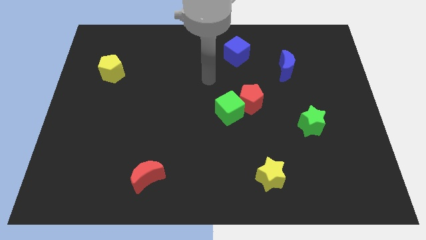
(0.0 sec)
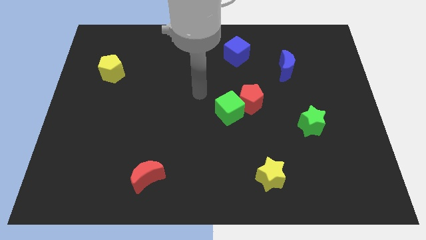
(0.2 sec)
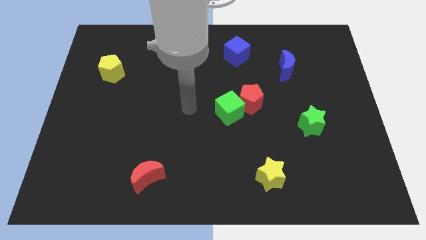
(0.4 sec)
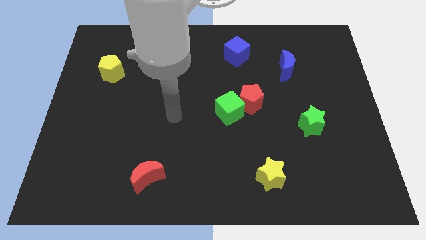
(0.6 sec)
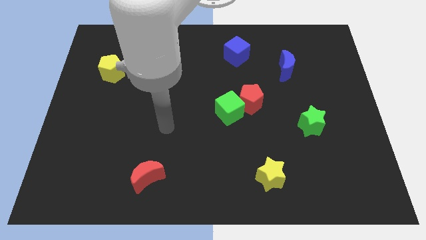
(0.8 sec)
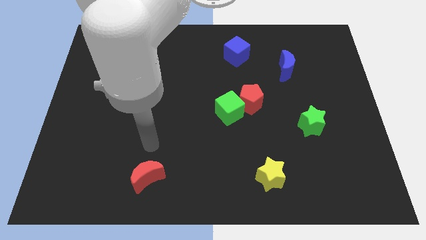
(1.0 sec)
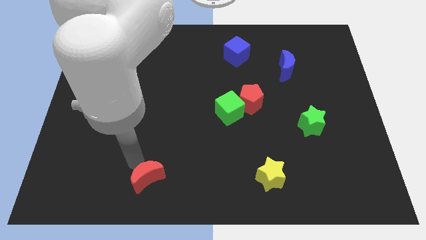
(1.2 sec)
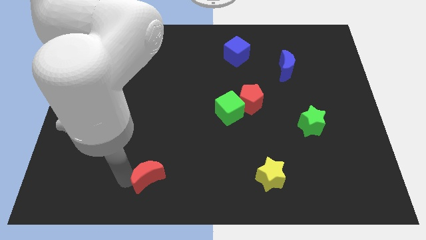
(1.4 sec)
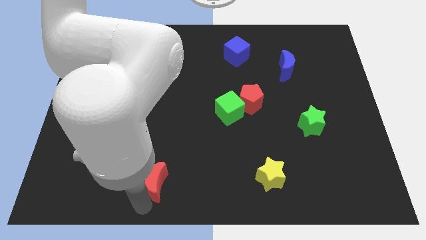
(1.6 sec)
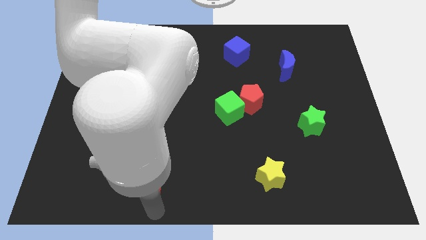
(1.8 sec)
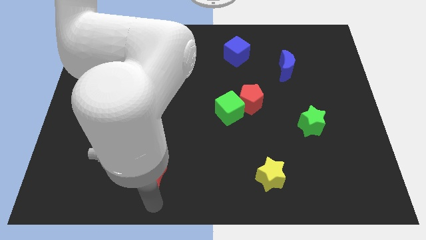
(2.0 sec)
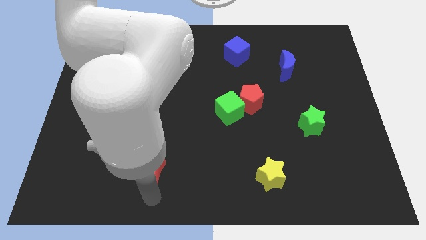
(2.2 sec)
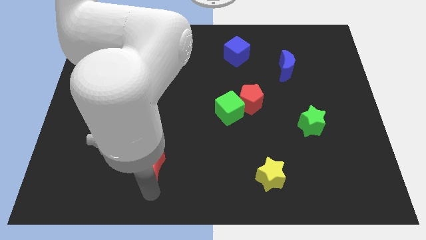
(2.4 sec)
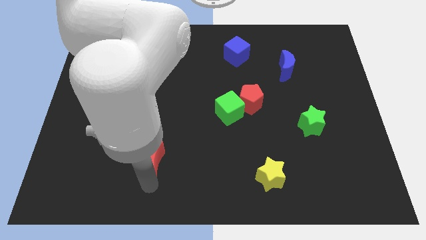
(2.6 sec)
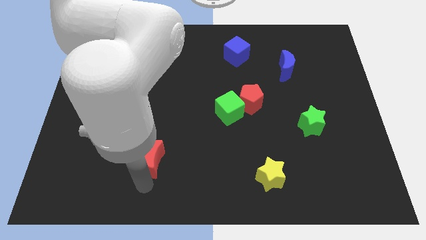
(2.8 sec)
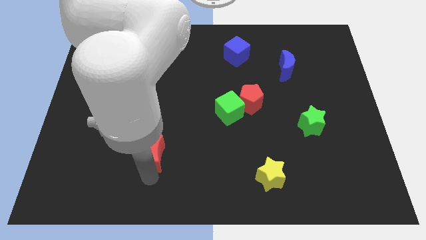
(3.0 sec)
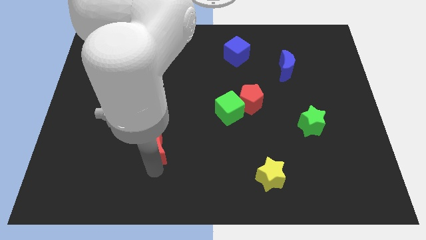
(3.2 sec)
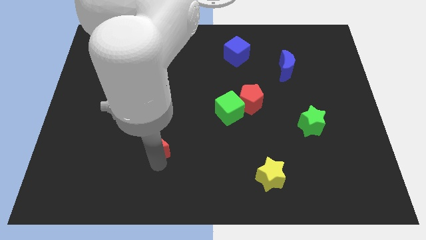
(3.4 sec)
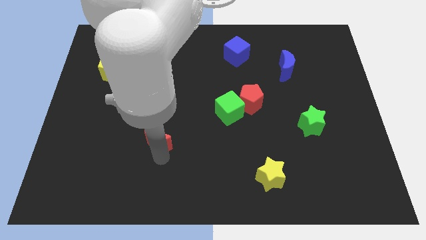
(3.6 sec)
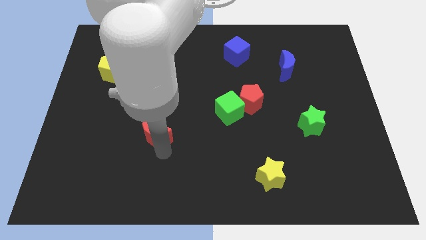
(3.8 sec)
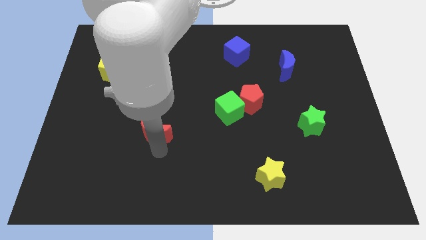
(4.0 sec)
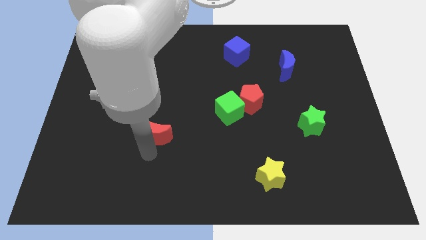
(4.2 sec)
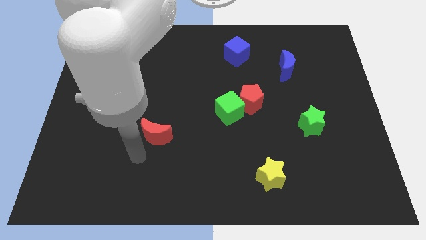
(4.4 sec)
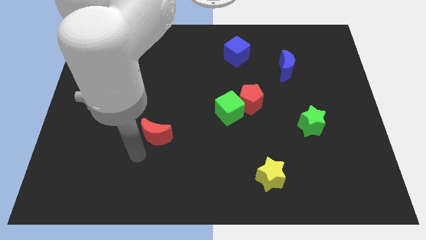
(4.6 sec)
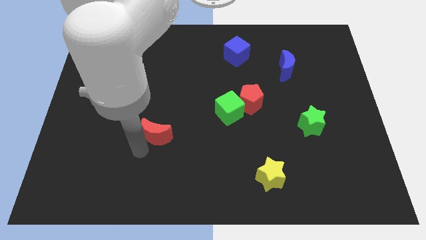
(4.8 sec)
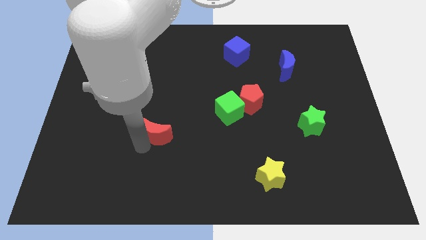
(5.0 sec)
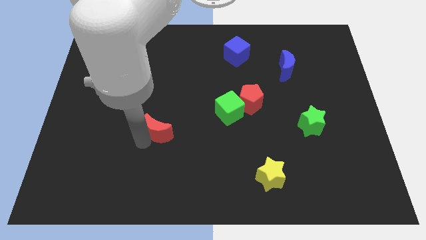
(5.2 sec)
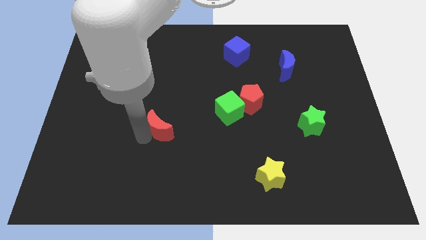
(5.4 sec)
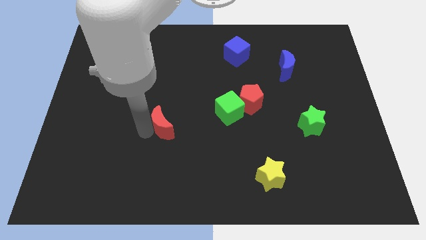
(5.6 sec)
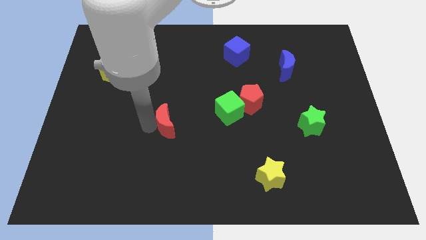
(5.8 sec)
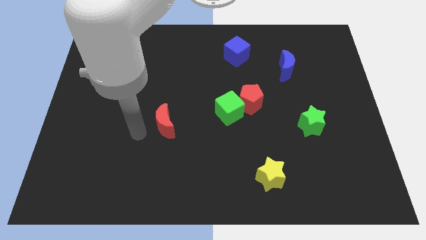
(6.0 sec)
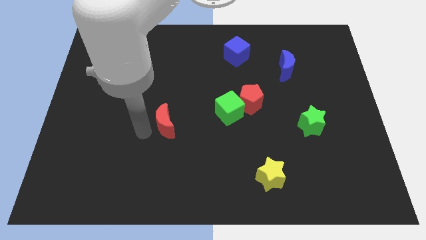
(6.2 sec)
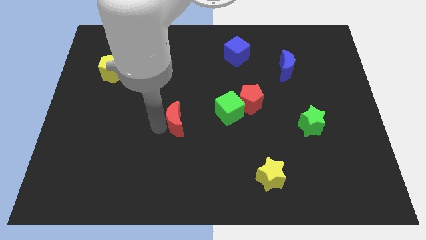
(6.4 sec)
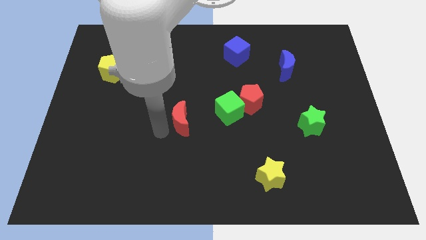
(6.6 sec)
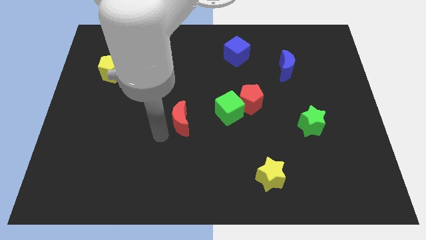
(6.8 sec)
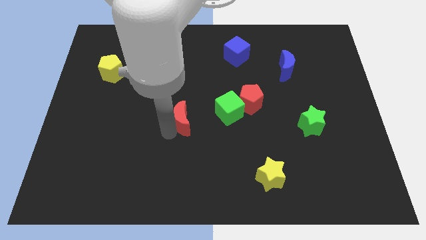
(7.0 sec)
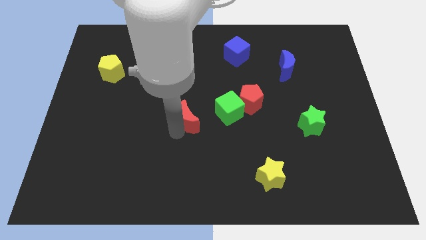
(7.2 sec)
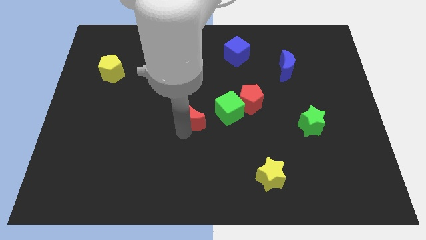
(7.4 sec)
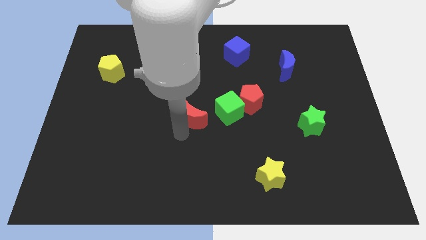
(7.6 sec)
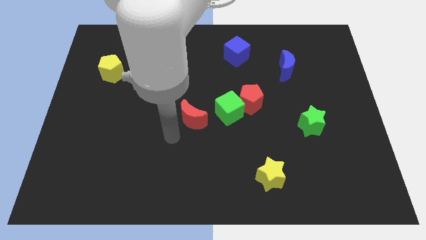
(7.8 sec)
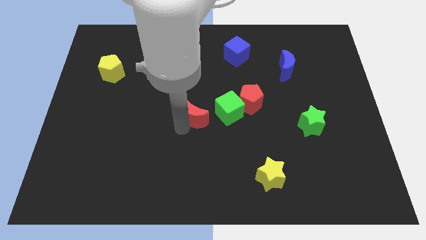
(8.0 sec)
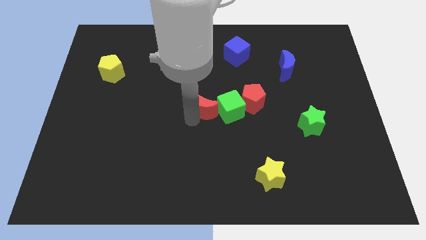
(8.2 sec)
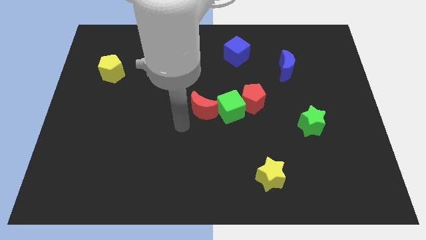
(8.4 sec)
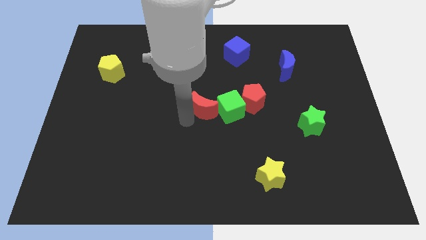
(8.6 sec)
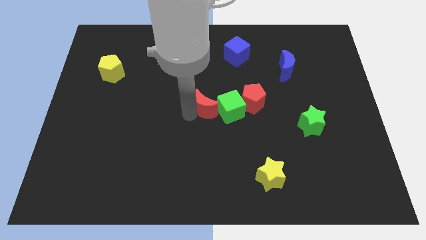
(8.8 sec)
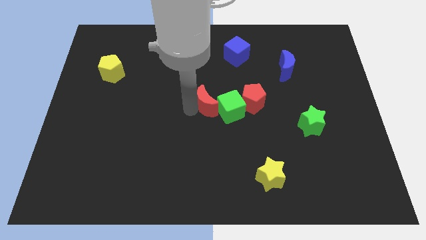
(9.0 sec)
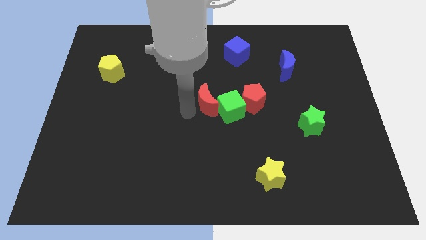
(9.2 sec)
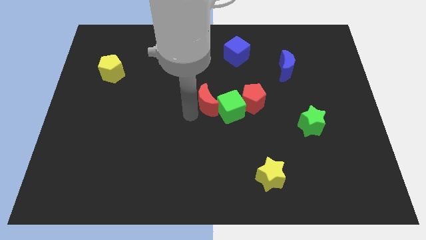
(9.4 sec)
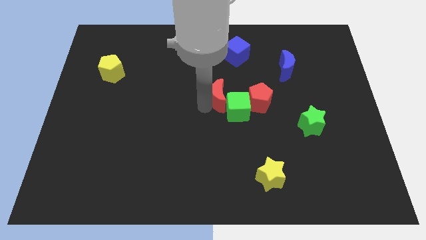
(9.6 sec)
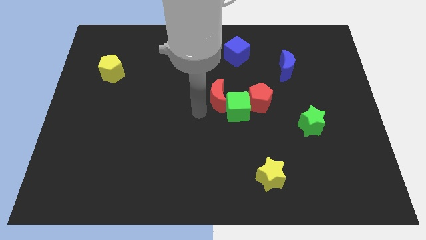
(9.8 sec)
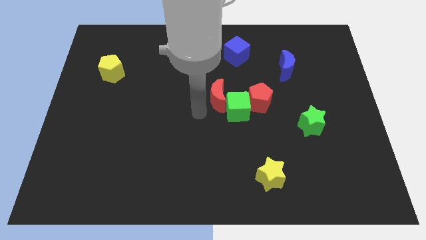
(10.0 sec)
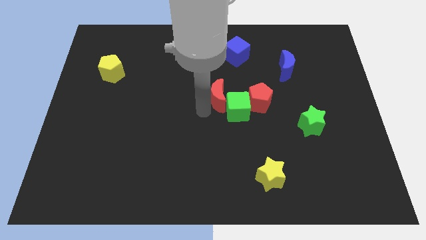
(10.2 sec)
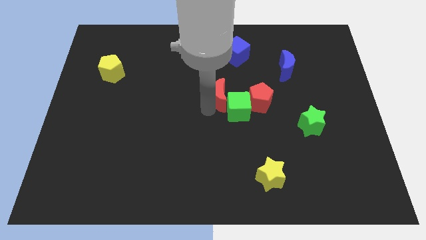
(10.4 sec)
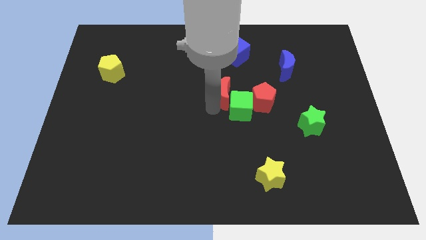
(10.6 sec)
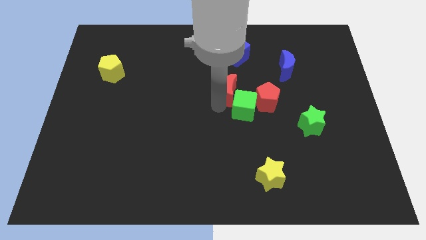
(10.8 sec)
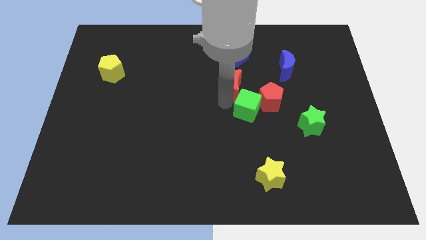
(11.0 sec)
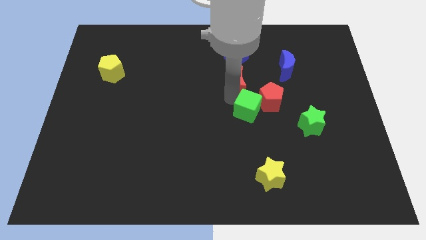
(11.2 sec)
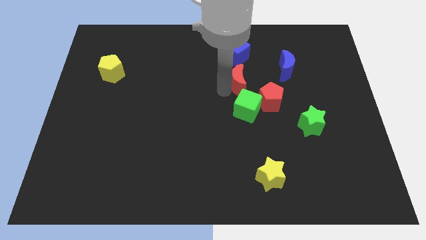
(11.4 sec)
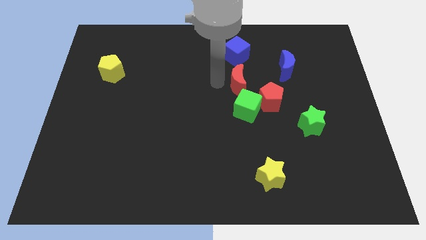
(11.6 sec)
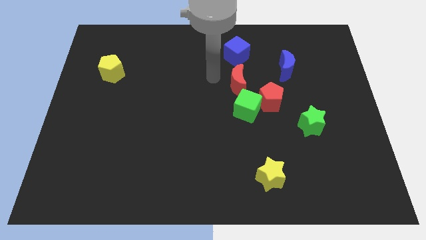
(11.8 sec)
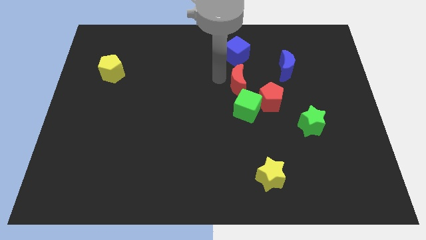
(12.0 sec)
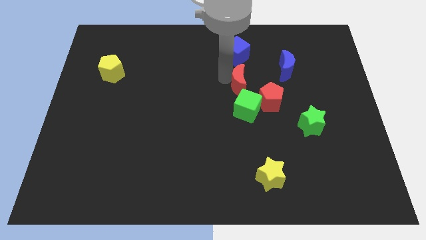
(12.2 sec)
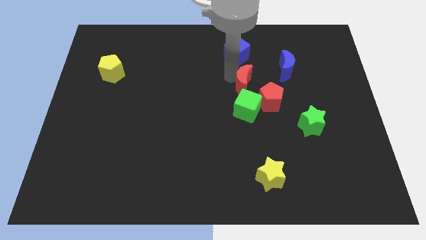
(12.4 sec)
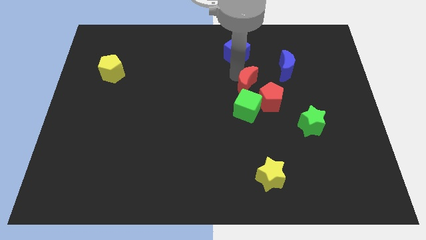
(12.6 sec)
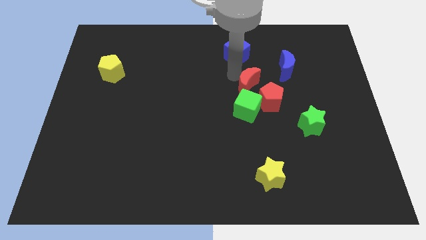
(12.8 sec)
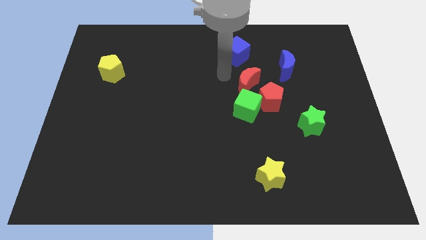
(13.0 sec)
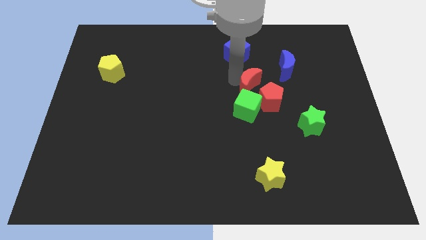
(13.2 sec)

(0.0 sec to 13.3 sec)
slide the red moon to the top right side of the green cube

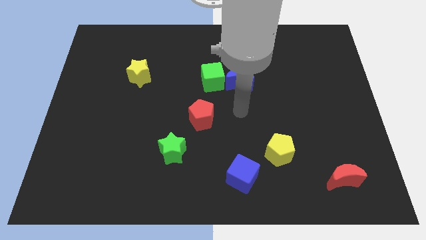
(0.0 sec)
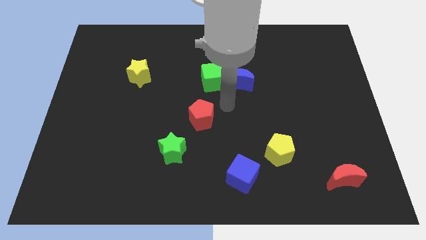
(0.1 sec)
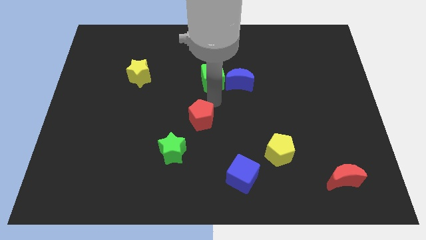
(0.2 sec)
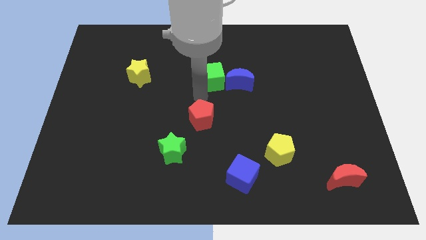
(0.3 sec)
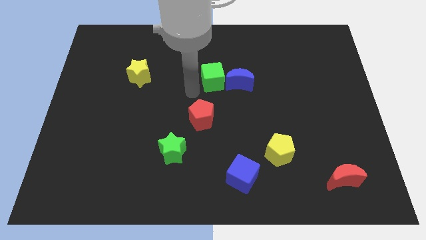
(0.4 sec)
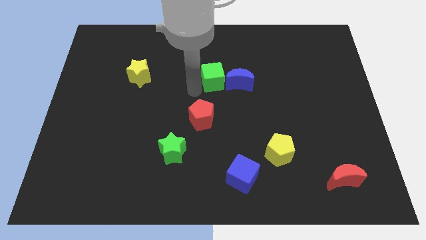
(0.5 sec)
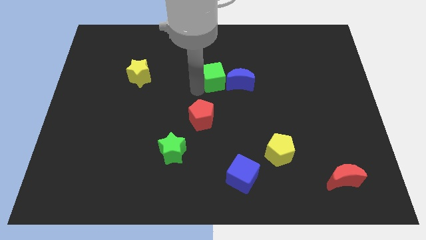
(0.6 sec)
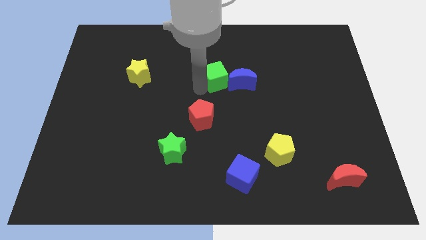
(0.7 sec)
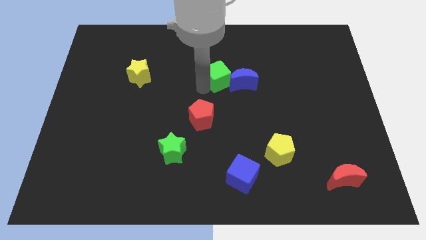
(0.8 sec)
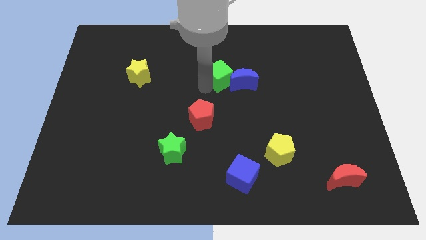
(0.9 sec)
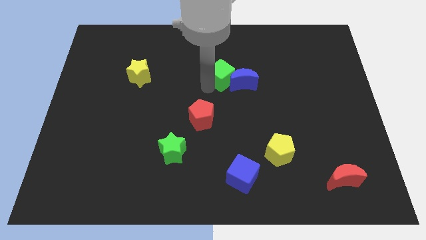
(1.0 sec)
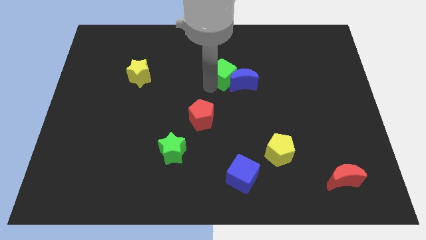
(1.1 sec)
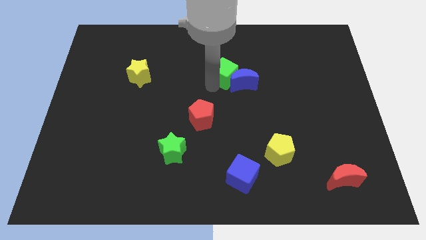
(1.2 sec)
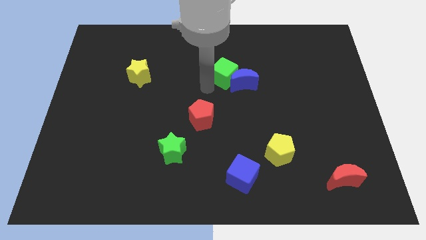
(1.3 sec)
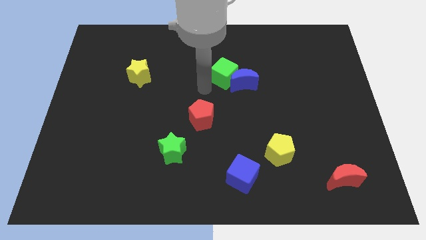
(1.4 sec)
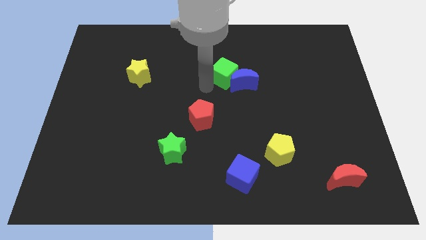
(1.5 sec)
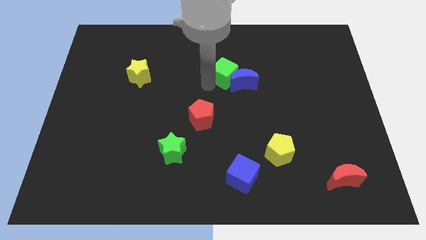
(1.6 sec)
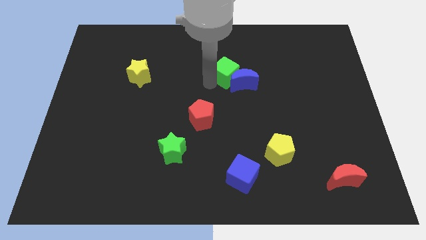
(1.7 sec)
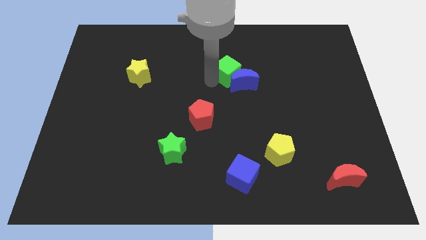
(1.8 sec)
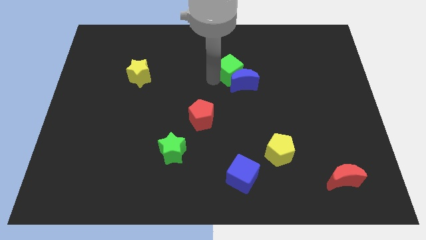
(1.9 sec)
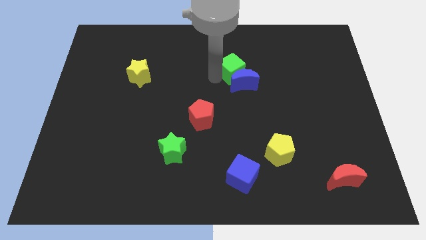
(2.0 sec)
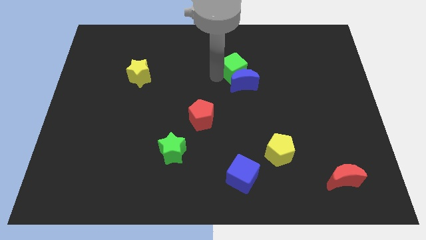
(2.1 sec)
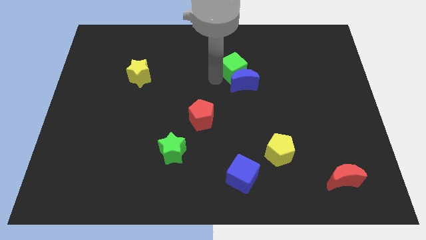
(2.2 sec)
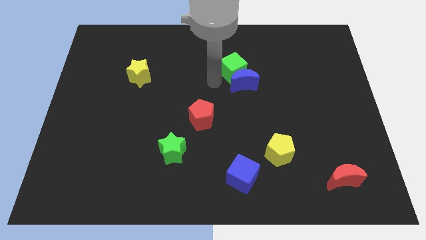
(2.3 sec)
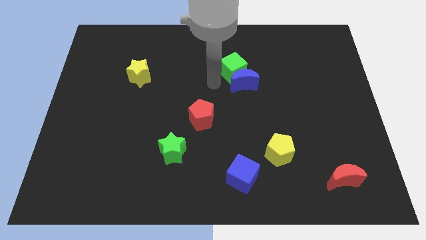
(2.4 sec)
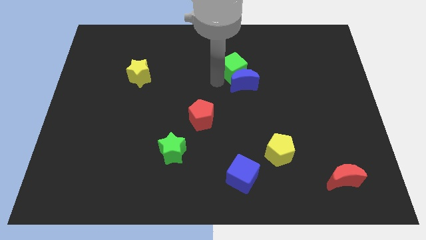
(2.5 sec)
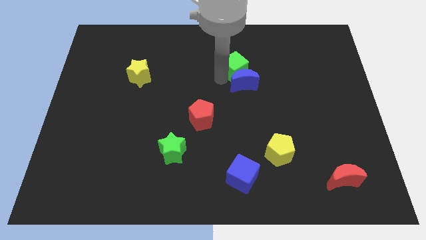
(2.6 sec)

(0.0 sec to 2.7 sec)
push the green cube to the top right side of the blue moon
